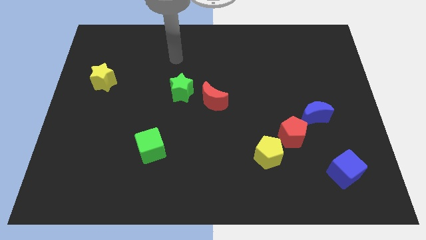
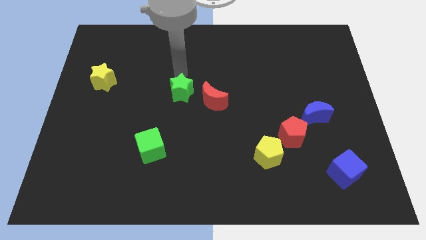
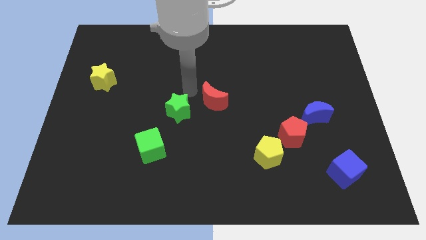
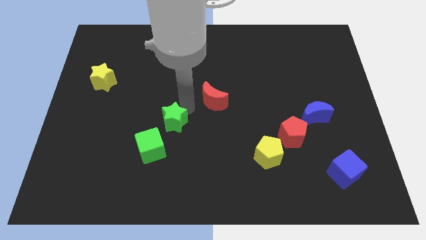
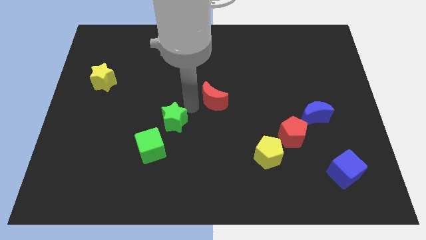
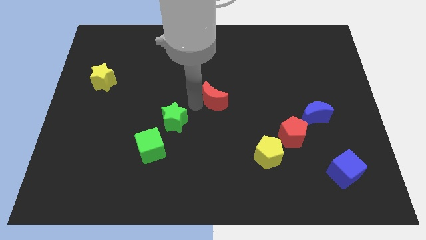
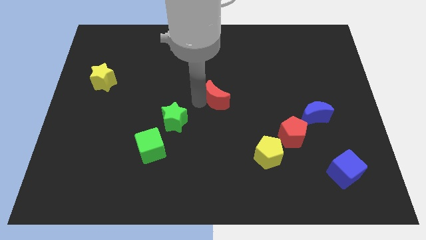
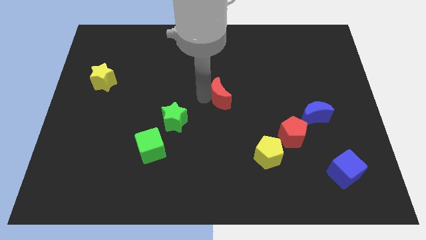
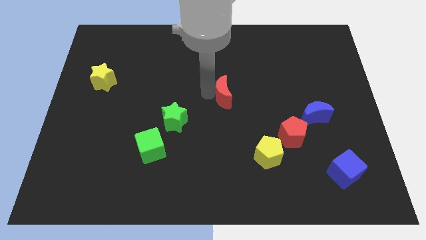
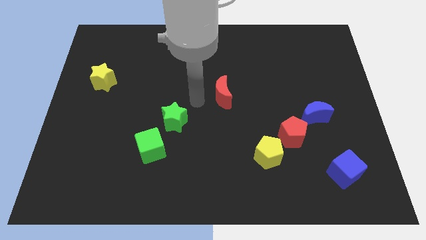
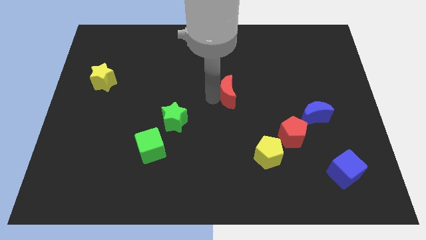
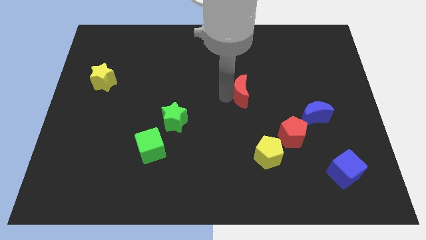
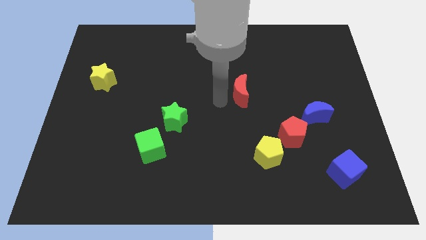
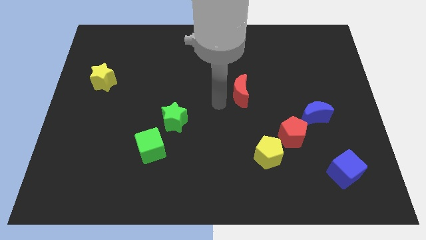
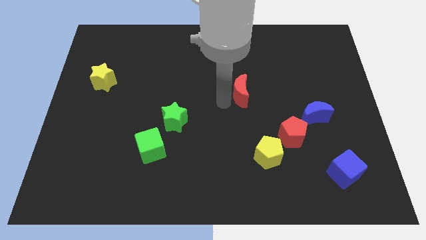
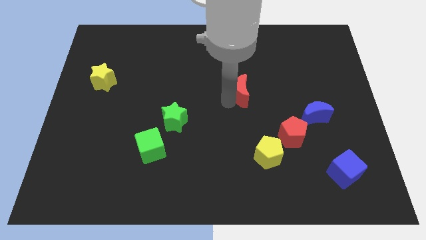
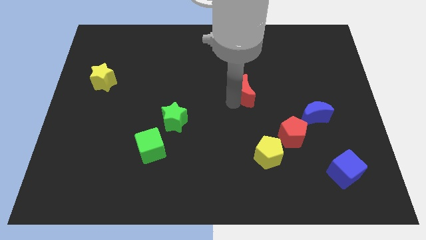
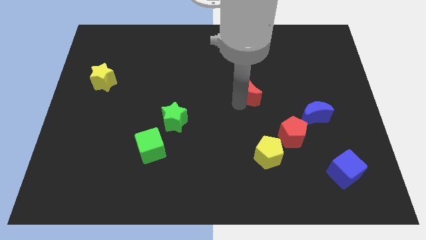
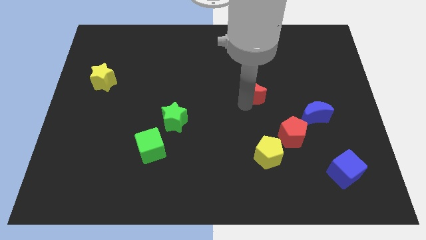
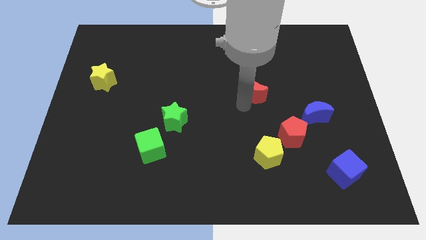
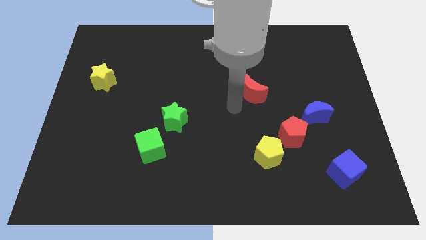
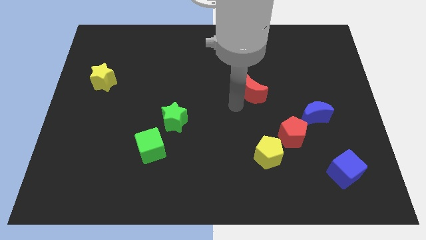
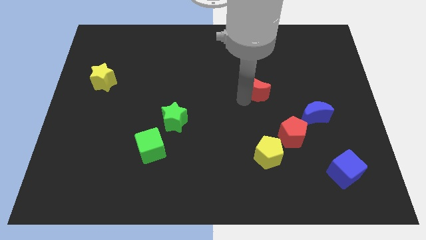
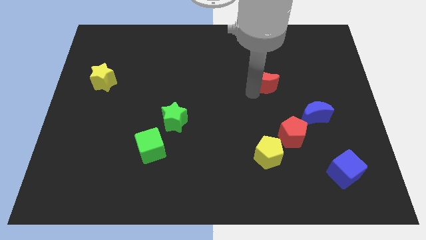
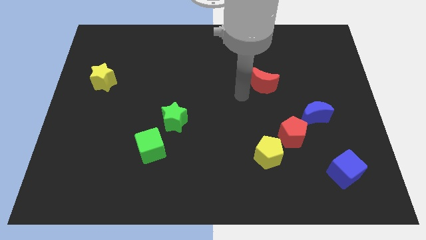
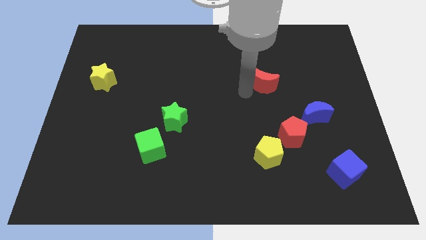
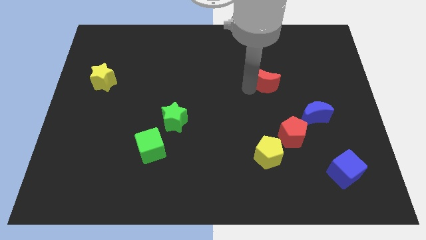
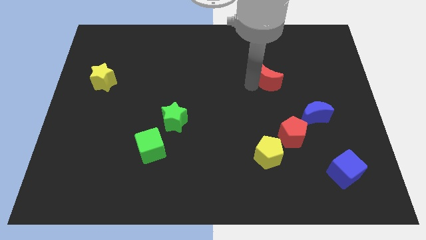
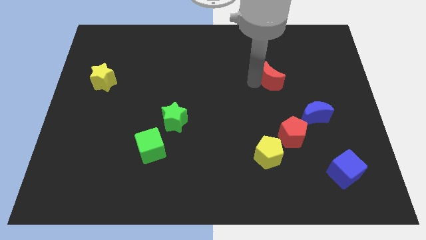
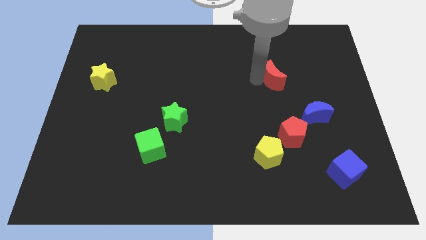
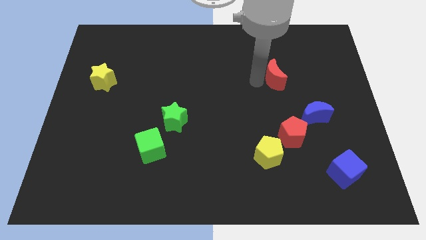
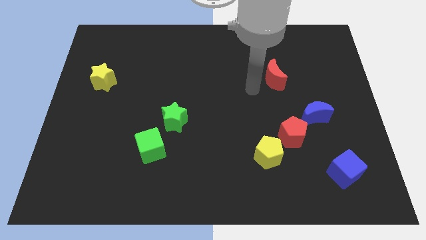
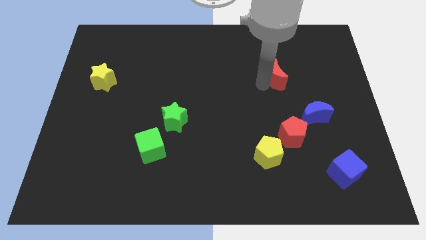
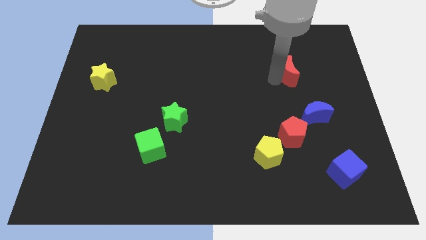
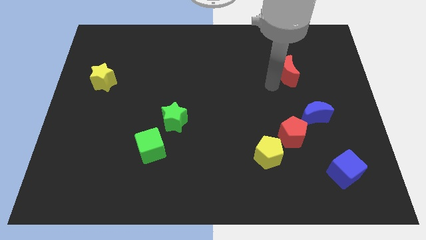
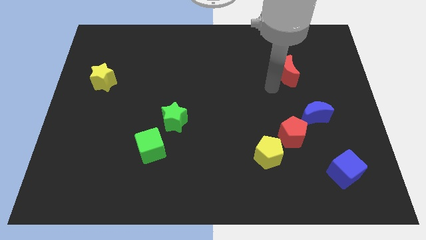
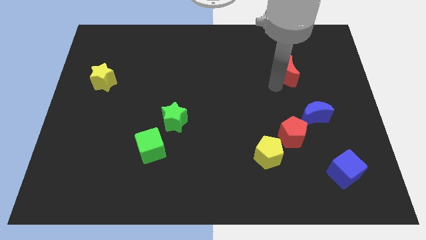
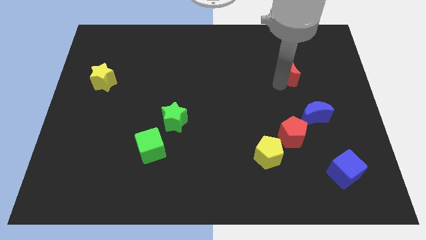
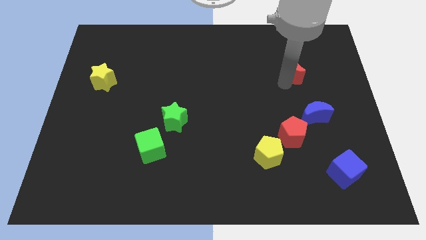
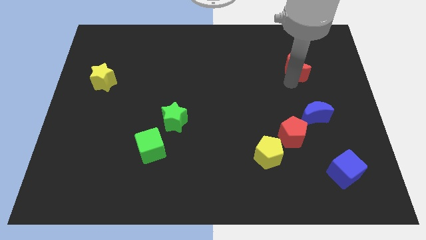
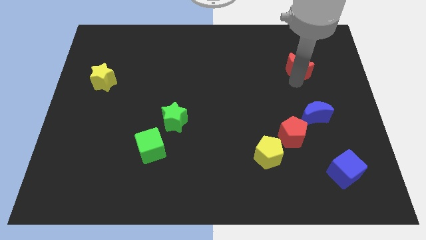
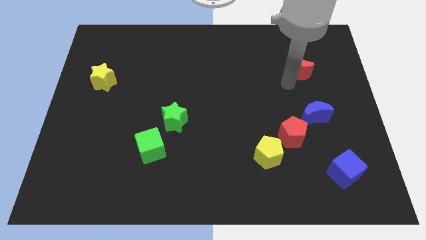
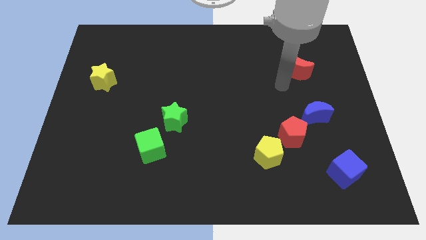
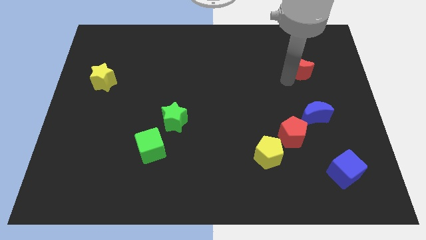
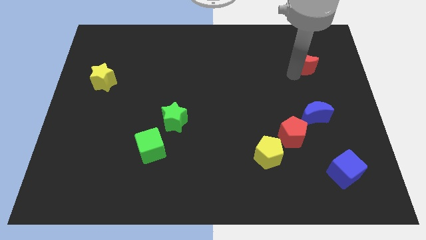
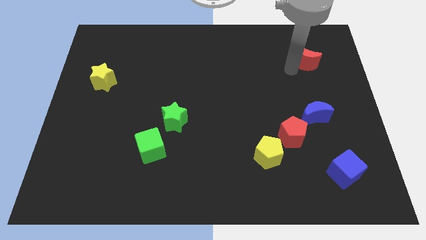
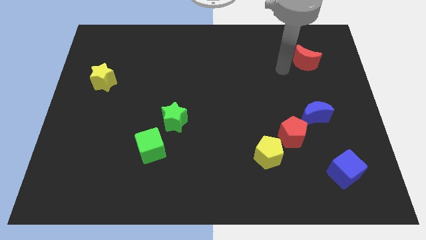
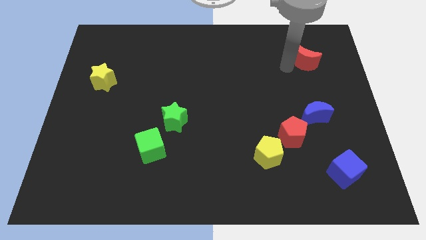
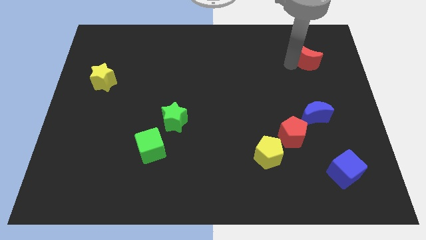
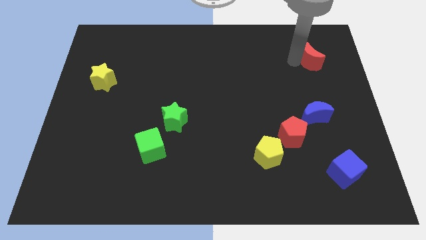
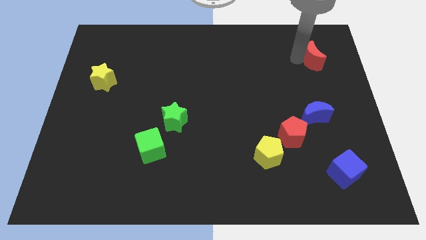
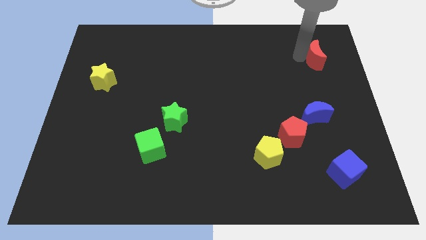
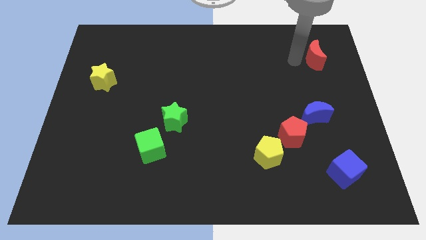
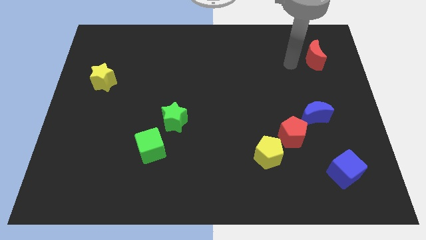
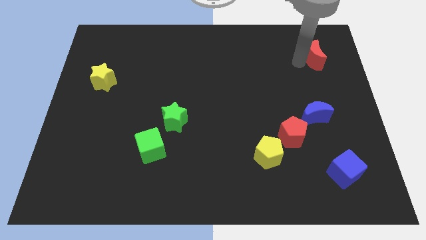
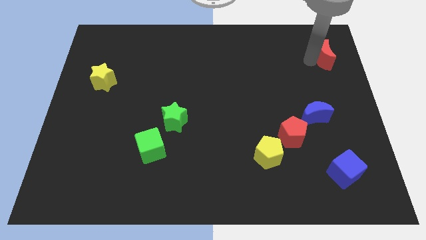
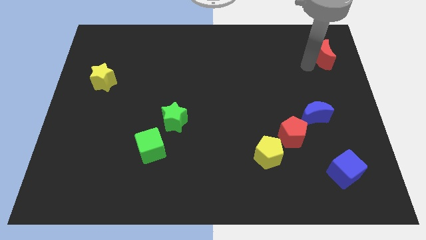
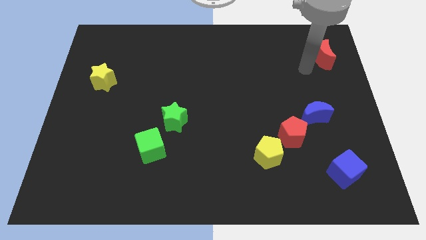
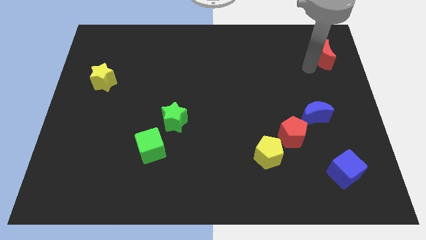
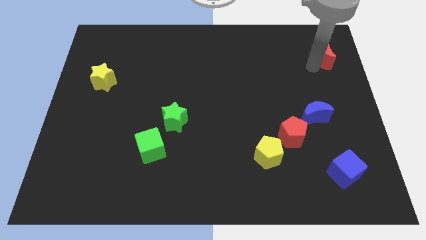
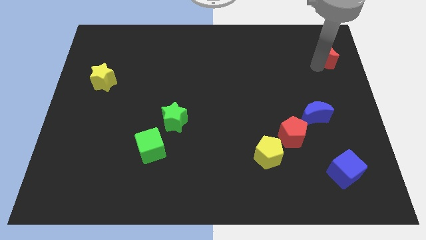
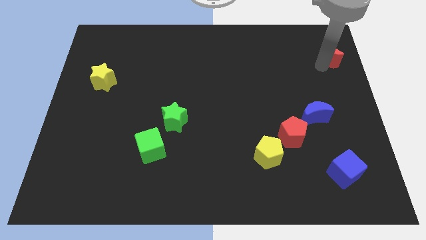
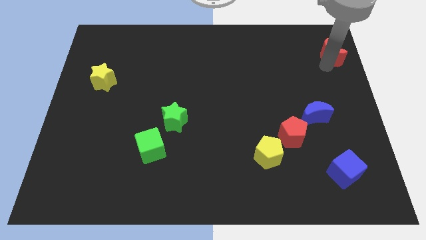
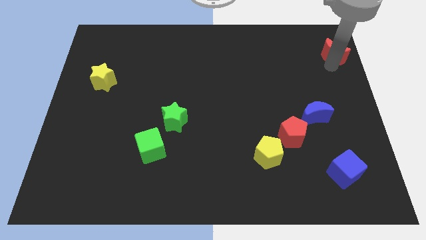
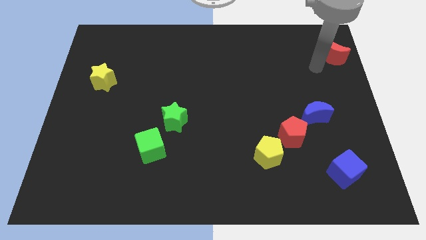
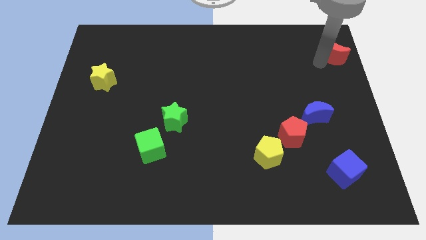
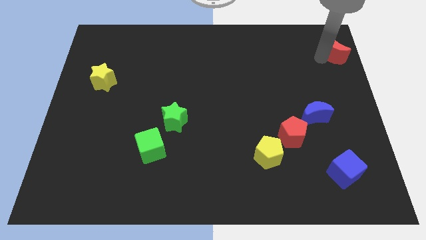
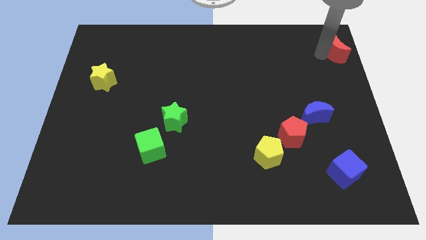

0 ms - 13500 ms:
put the red moon to the upper right corner

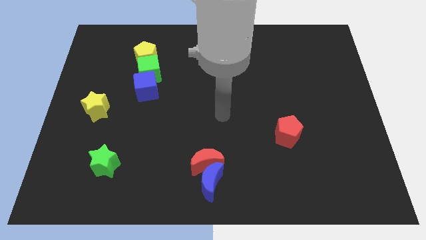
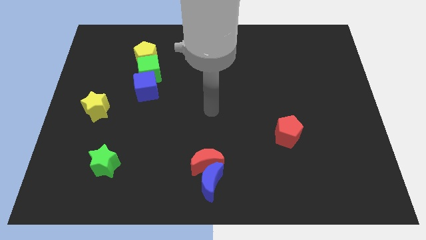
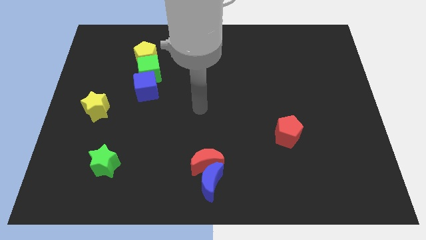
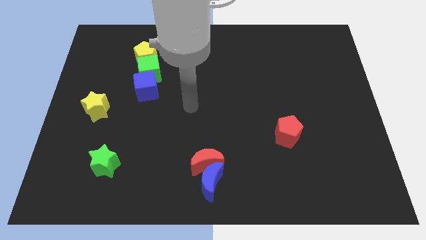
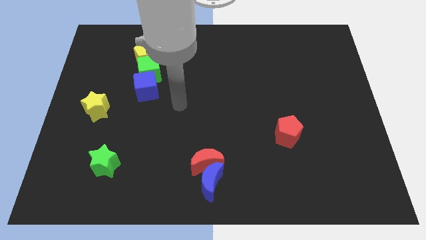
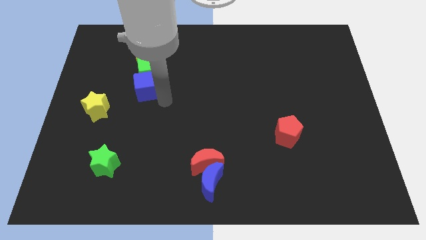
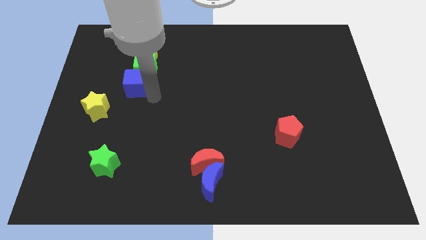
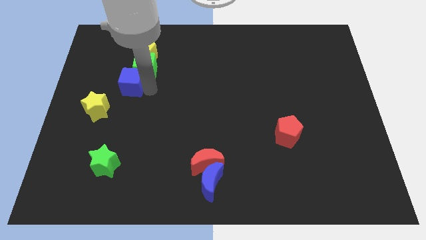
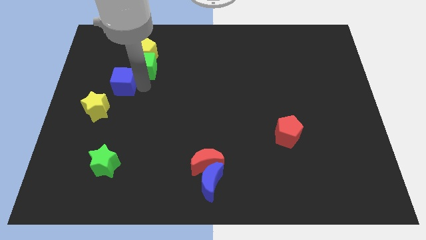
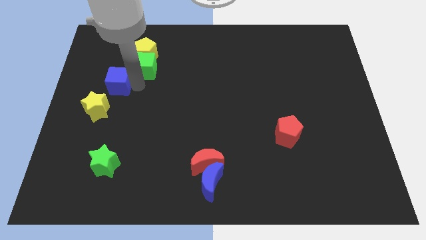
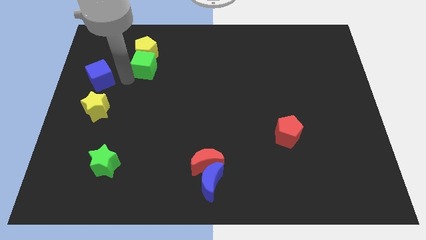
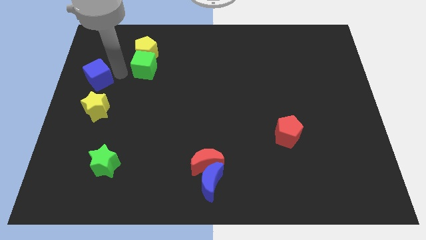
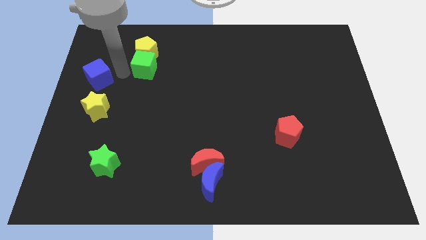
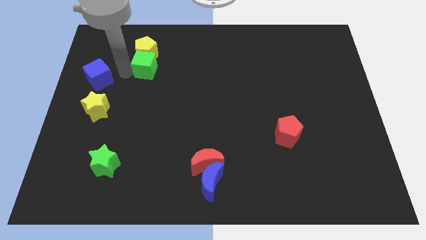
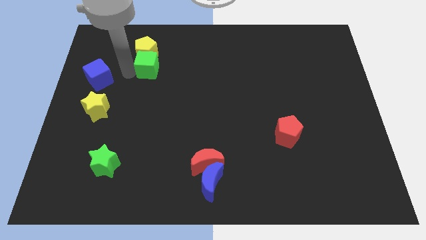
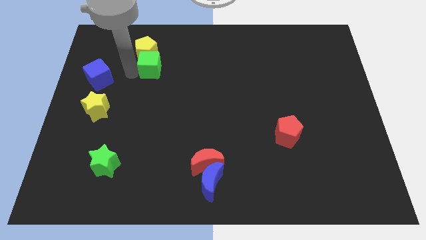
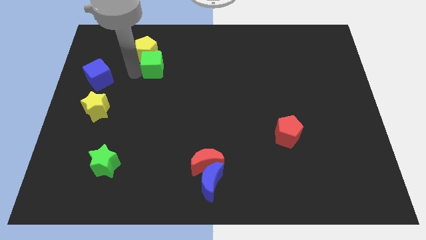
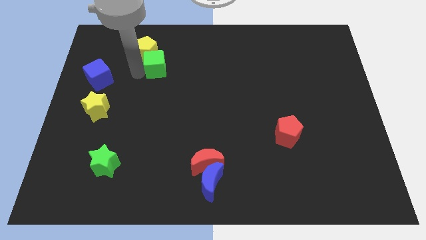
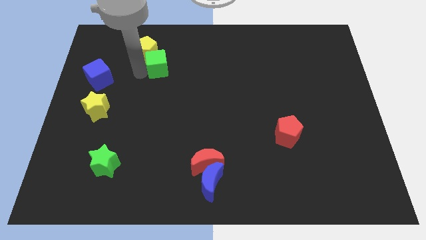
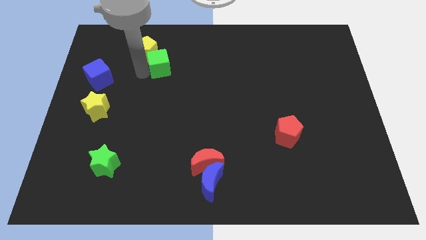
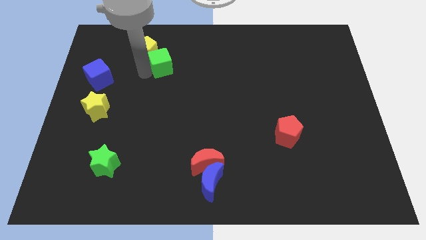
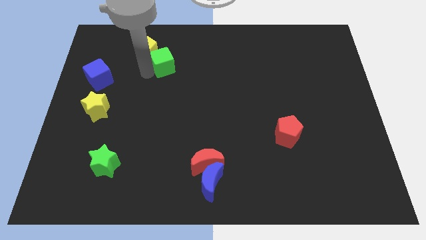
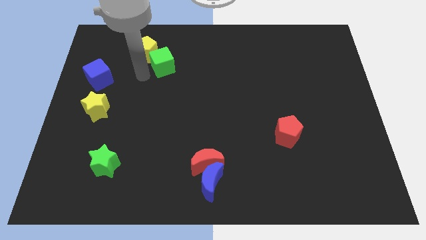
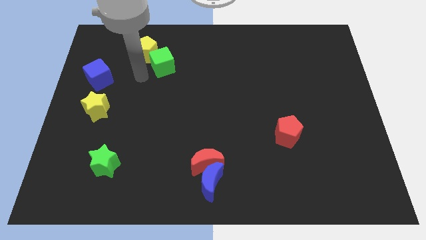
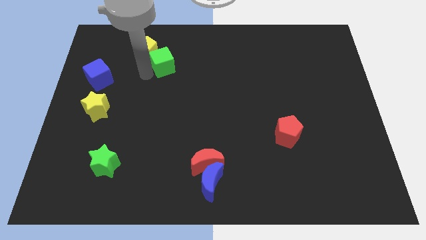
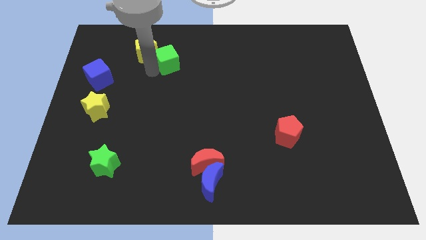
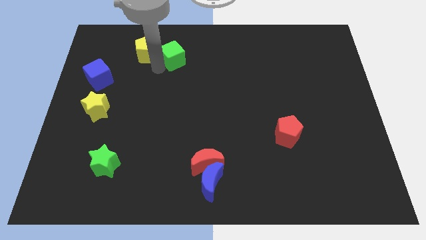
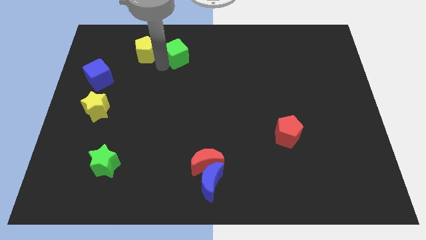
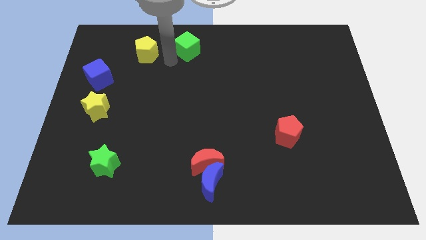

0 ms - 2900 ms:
slide the green cube to the top side
